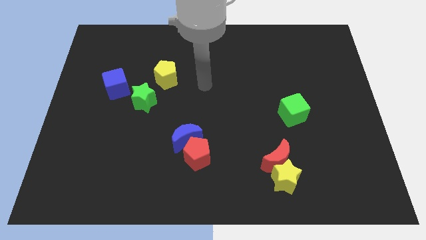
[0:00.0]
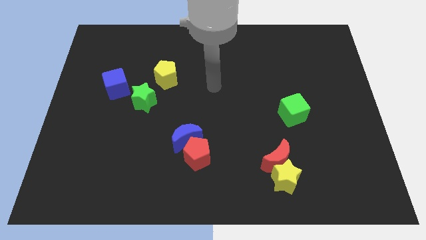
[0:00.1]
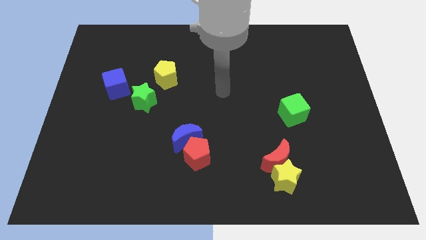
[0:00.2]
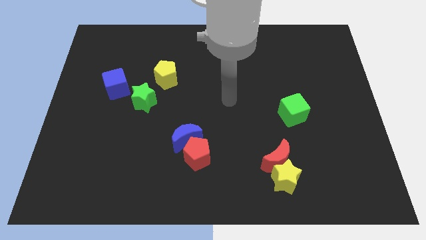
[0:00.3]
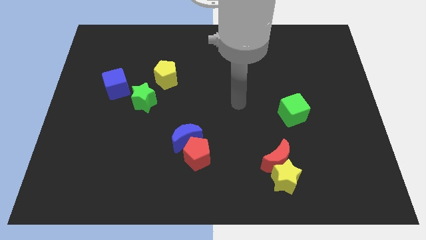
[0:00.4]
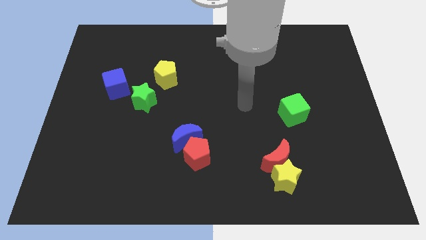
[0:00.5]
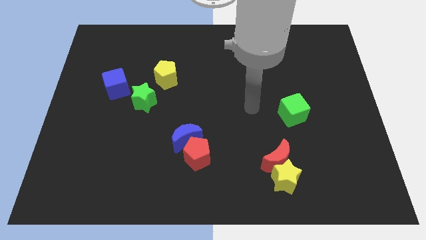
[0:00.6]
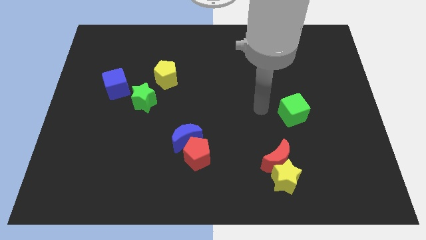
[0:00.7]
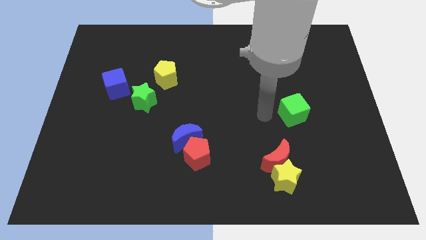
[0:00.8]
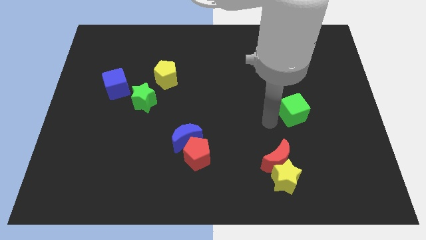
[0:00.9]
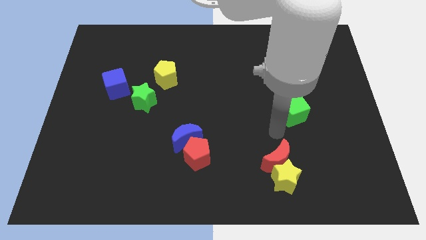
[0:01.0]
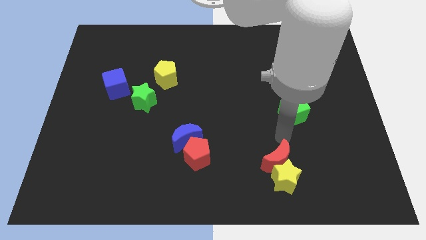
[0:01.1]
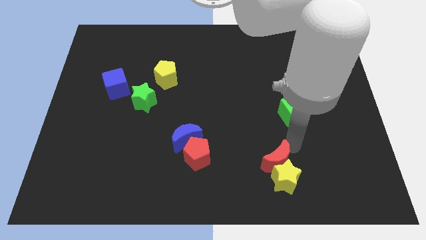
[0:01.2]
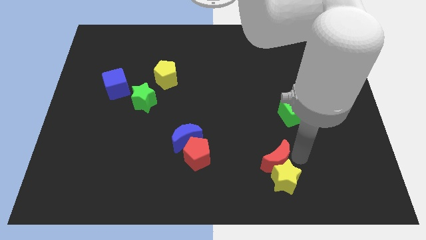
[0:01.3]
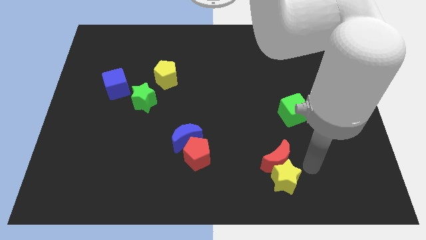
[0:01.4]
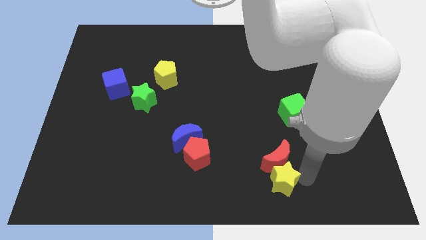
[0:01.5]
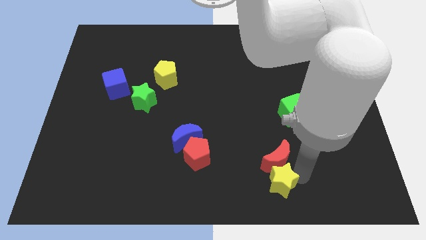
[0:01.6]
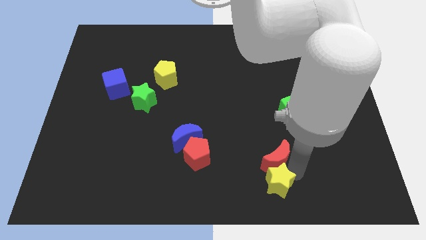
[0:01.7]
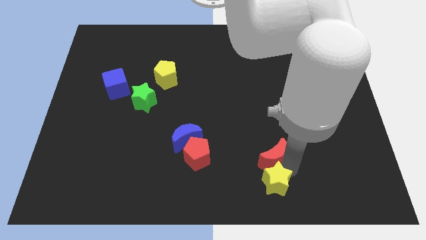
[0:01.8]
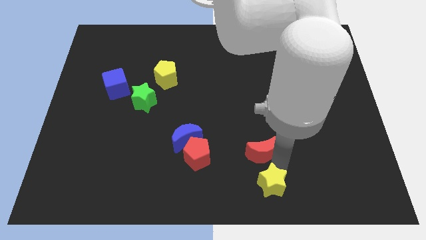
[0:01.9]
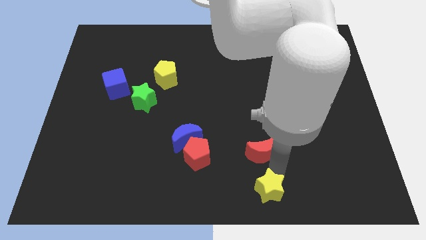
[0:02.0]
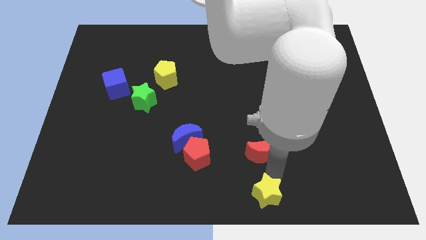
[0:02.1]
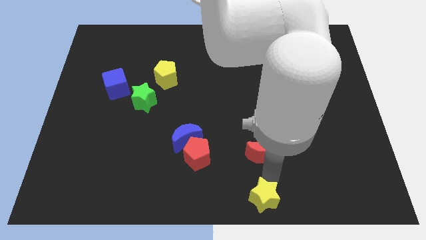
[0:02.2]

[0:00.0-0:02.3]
separate the red moon from the yellow star

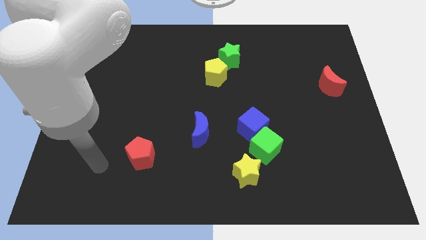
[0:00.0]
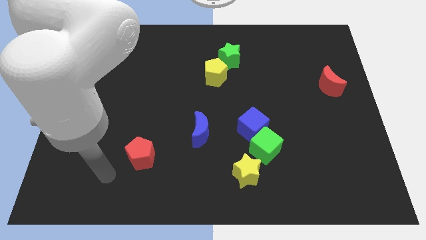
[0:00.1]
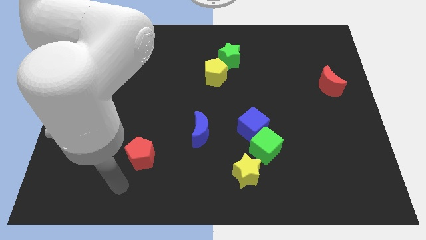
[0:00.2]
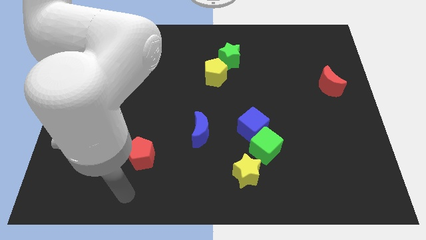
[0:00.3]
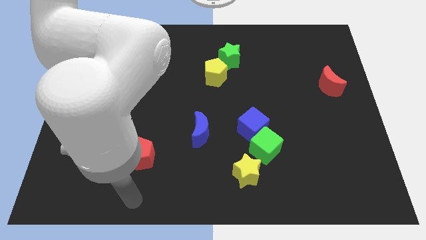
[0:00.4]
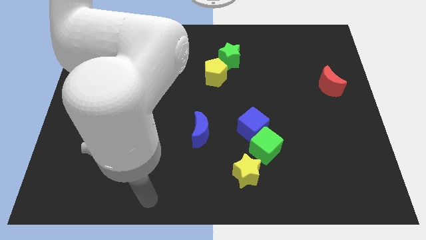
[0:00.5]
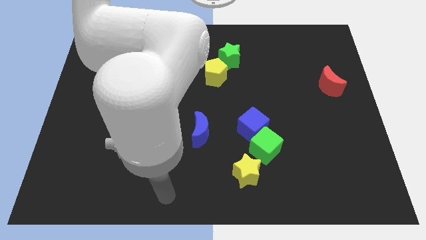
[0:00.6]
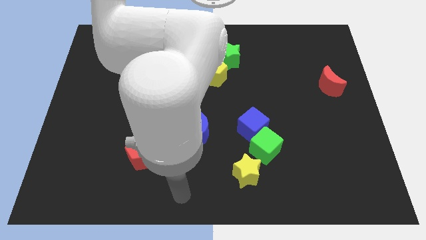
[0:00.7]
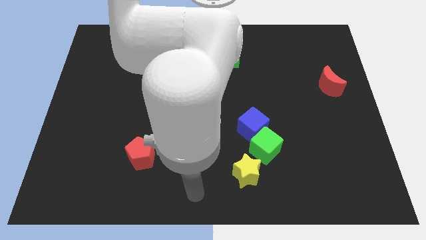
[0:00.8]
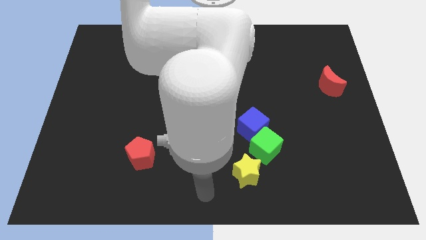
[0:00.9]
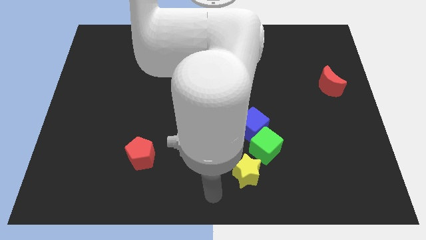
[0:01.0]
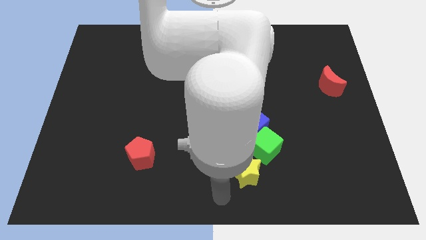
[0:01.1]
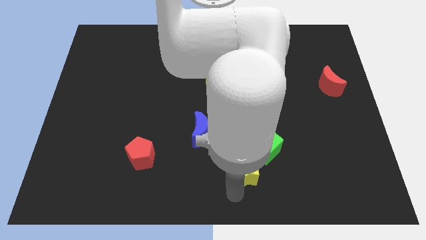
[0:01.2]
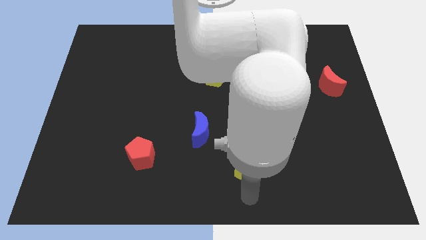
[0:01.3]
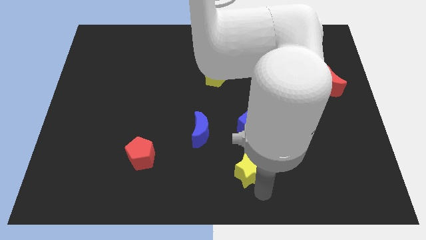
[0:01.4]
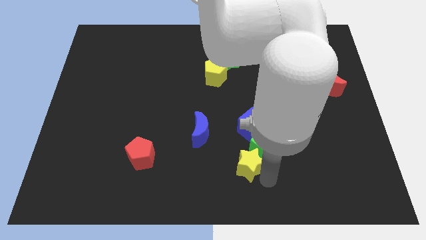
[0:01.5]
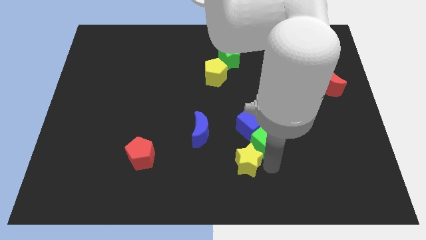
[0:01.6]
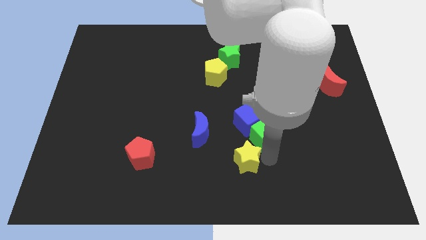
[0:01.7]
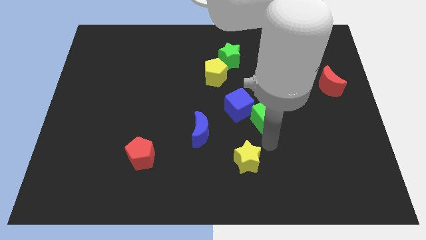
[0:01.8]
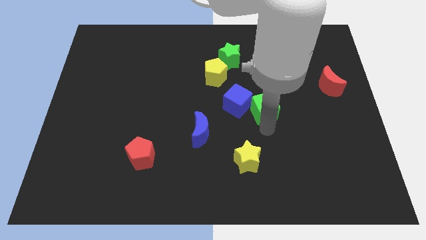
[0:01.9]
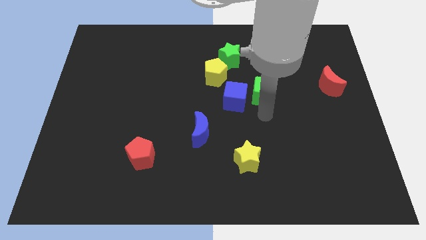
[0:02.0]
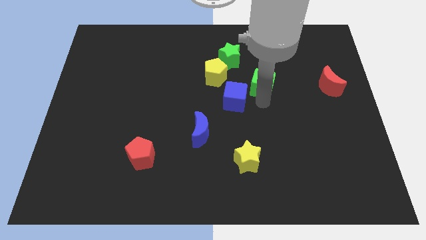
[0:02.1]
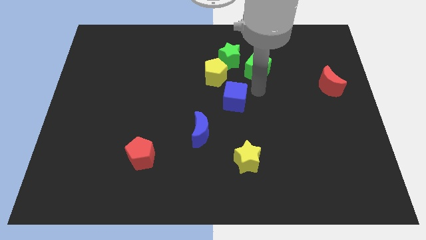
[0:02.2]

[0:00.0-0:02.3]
separate the blue cube from the green cube

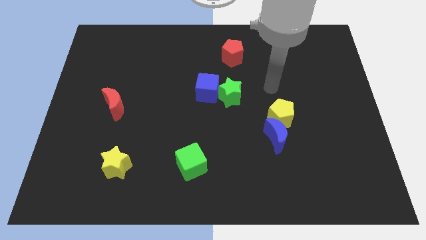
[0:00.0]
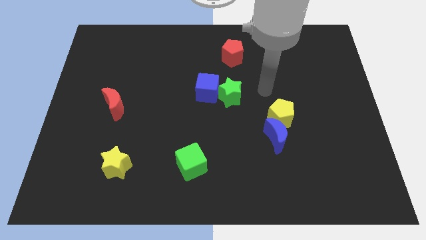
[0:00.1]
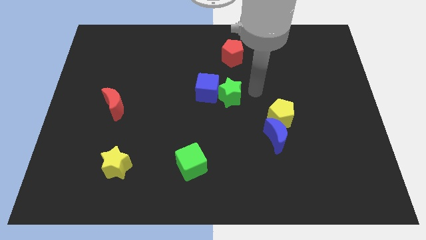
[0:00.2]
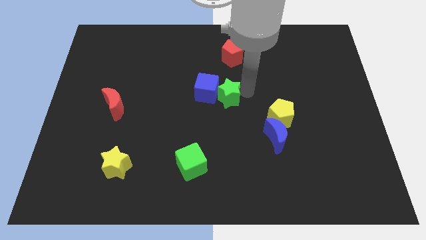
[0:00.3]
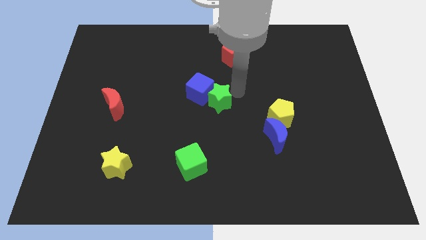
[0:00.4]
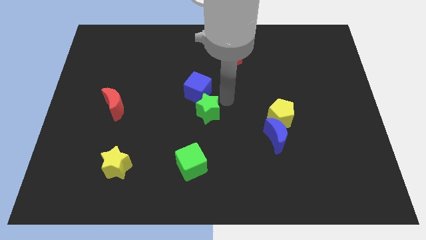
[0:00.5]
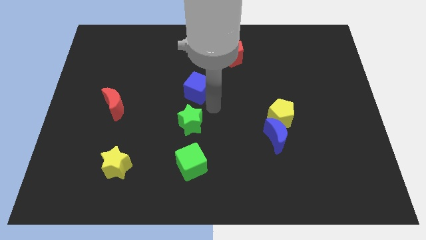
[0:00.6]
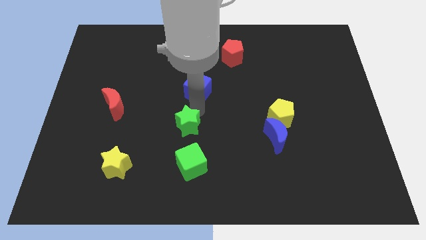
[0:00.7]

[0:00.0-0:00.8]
separate the blue cube from the green star

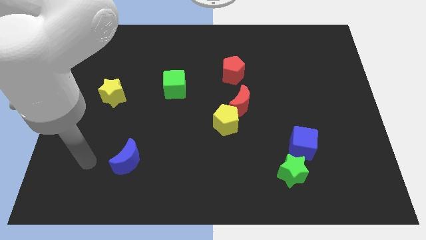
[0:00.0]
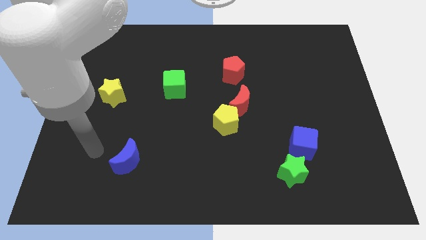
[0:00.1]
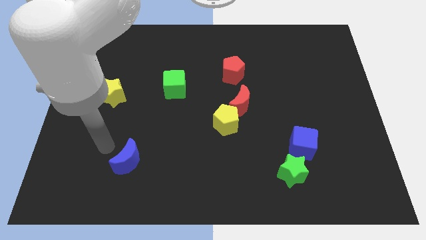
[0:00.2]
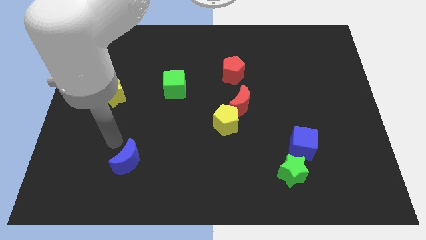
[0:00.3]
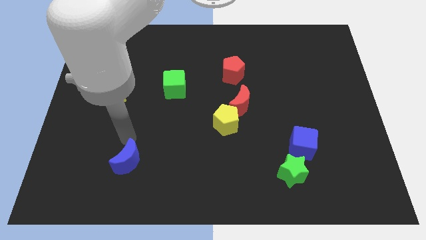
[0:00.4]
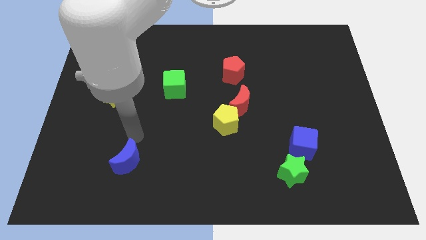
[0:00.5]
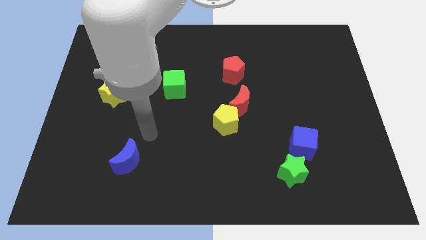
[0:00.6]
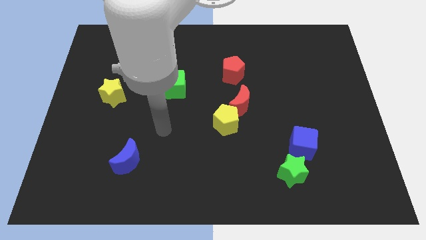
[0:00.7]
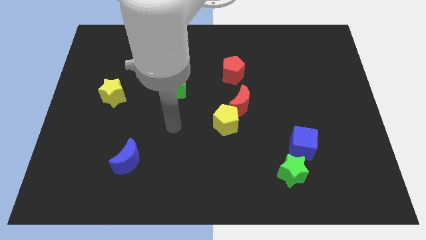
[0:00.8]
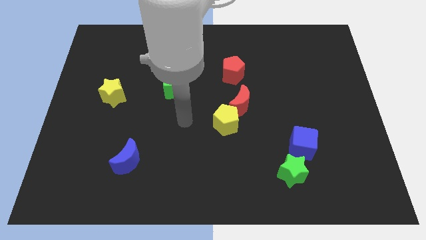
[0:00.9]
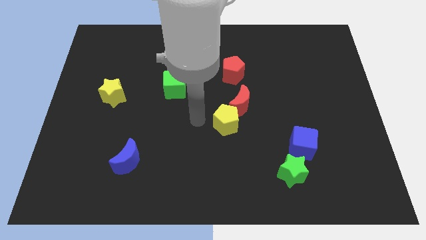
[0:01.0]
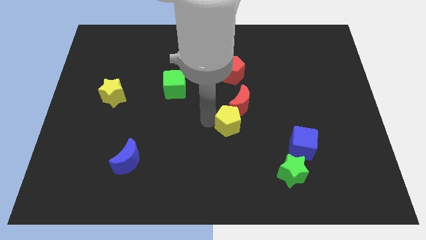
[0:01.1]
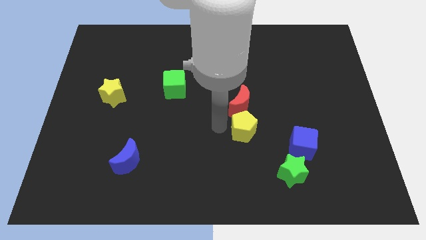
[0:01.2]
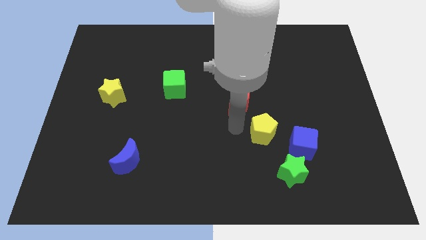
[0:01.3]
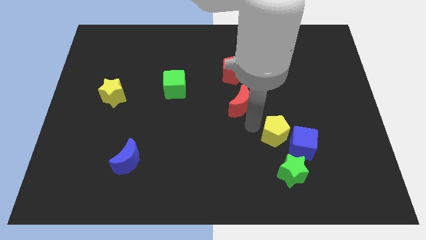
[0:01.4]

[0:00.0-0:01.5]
move the red moon away from the yellow pentagon

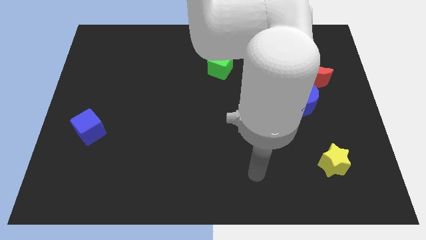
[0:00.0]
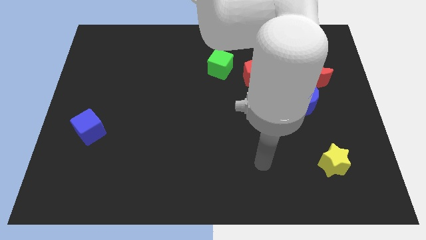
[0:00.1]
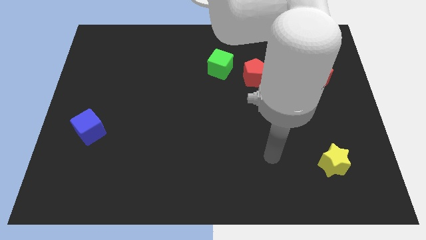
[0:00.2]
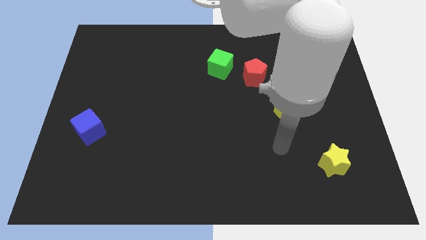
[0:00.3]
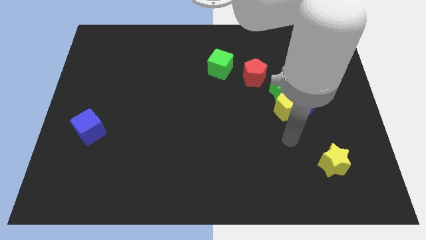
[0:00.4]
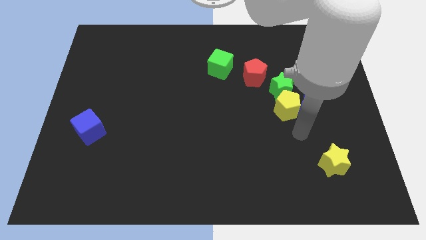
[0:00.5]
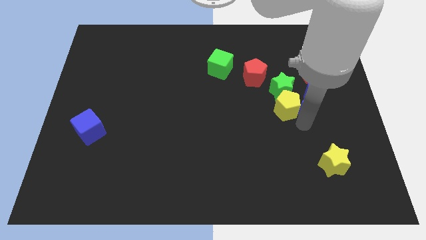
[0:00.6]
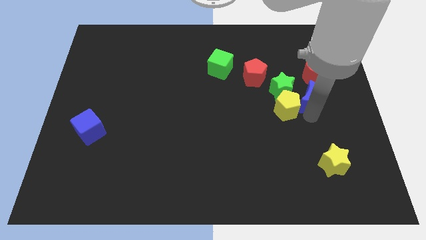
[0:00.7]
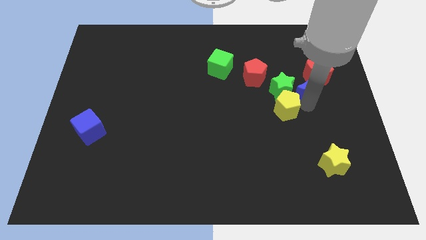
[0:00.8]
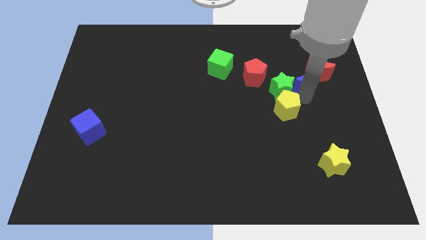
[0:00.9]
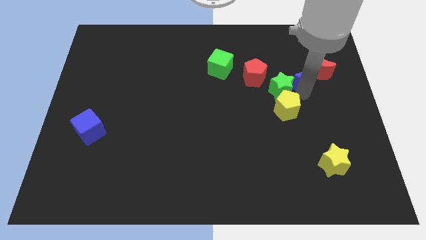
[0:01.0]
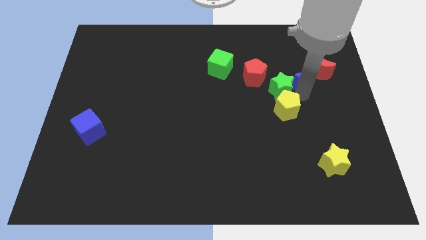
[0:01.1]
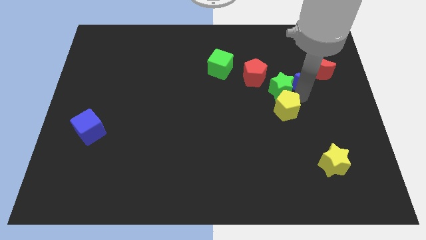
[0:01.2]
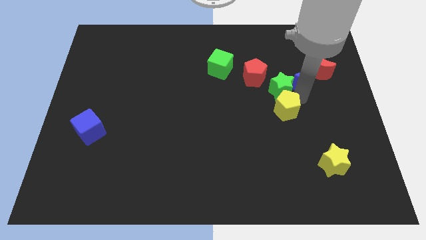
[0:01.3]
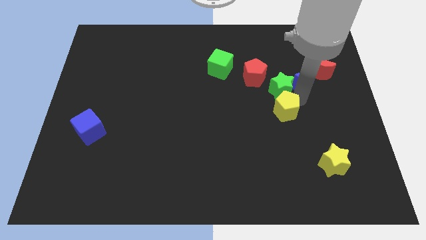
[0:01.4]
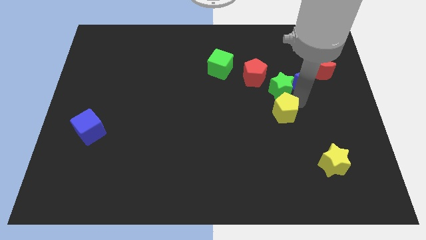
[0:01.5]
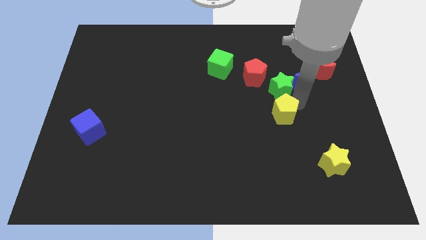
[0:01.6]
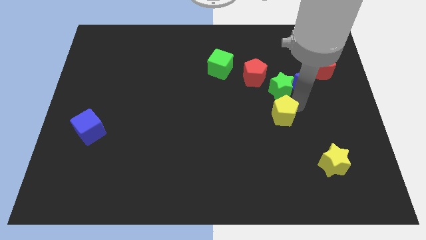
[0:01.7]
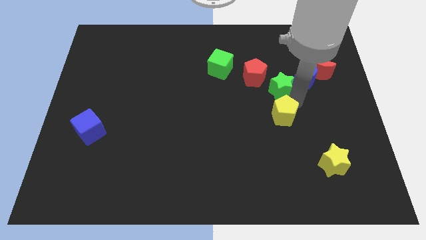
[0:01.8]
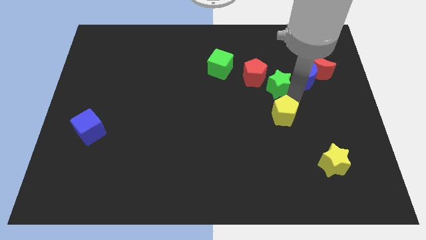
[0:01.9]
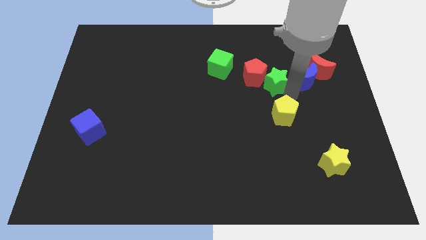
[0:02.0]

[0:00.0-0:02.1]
pull the yellow pentagon apart from the blue moon and green star

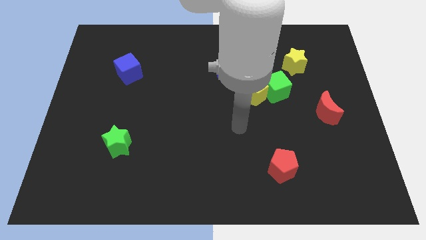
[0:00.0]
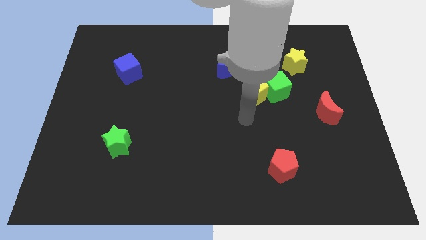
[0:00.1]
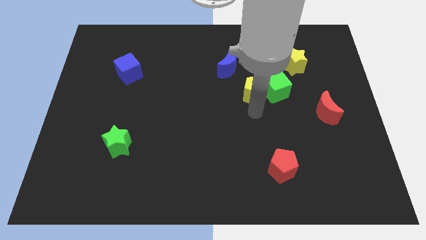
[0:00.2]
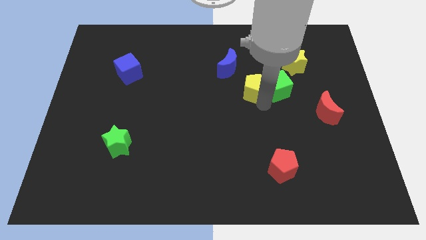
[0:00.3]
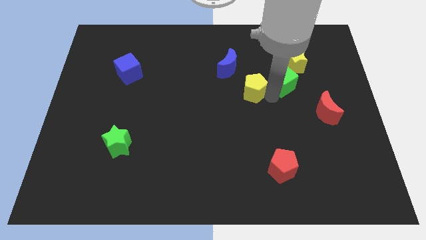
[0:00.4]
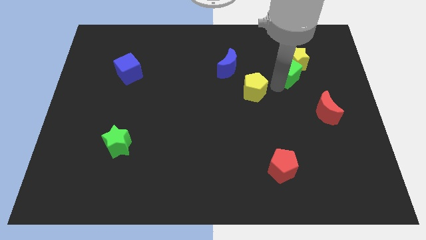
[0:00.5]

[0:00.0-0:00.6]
pull the yellow pentagon apart from the green cube
